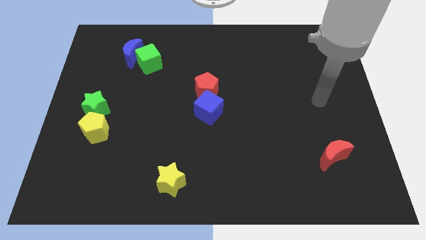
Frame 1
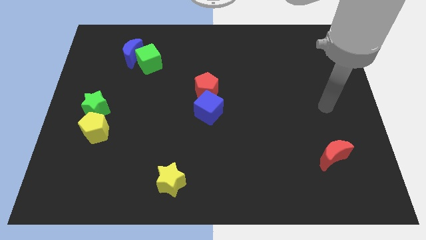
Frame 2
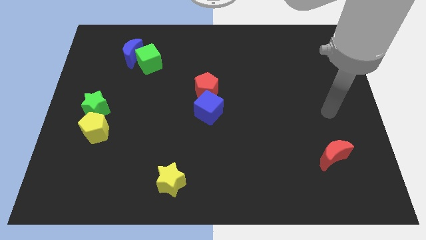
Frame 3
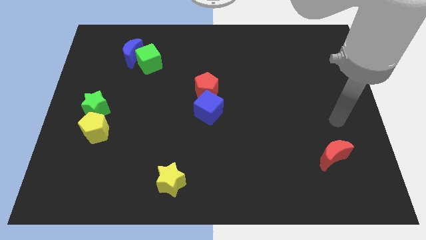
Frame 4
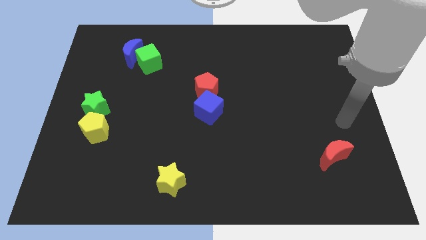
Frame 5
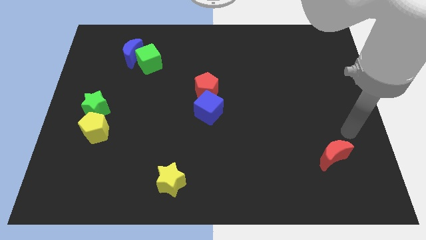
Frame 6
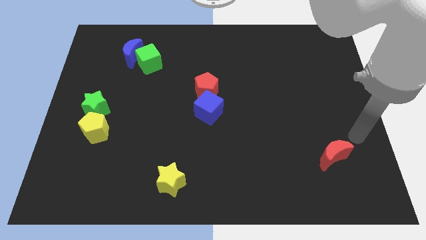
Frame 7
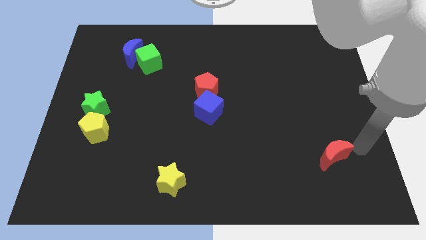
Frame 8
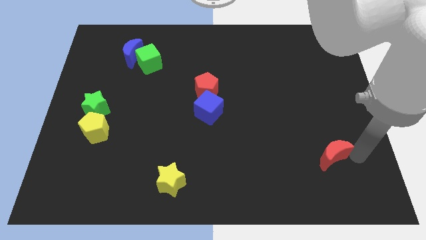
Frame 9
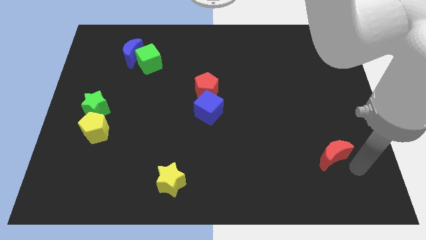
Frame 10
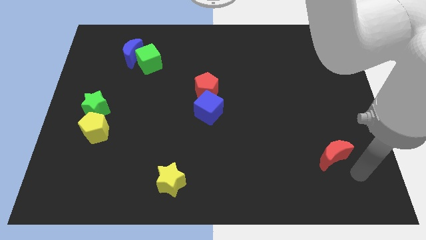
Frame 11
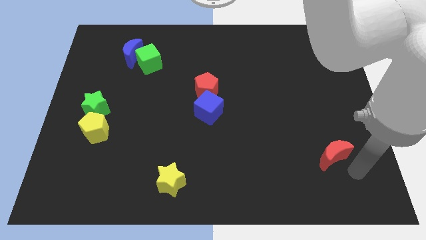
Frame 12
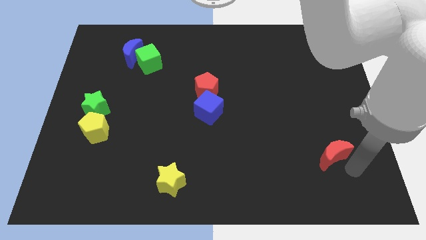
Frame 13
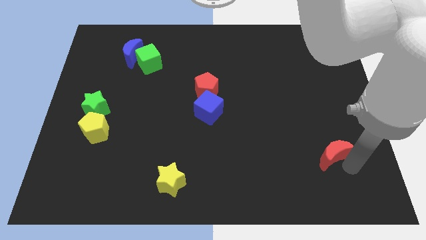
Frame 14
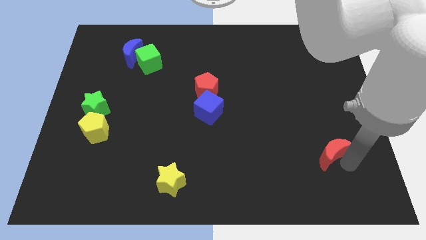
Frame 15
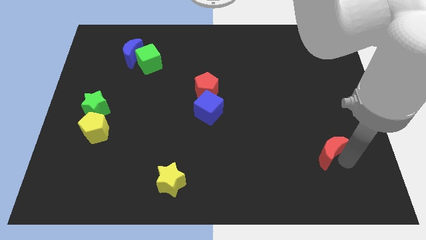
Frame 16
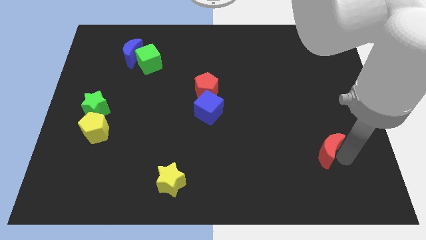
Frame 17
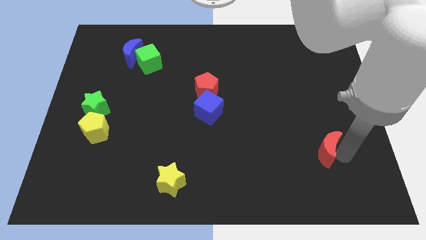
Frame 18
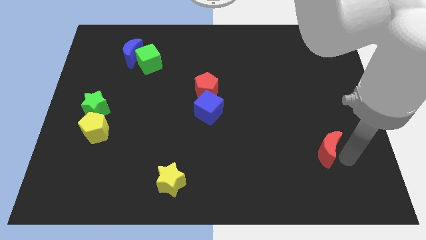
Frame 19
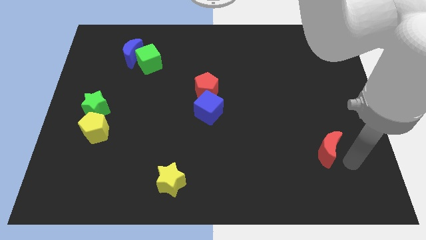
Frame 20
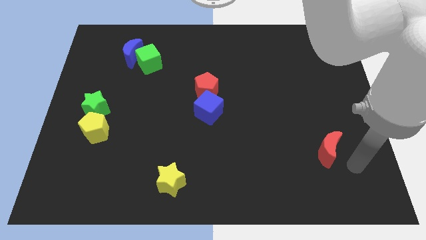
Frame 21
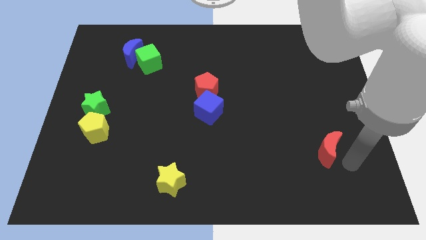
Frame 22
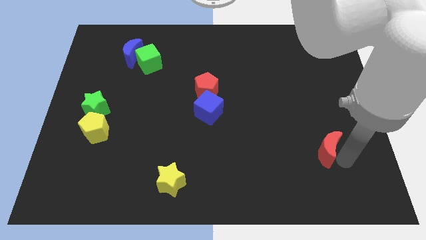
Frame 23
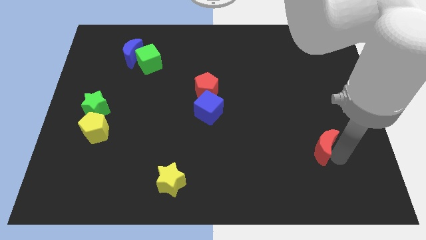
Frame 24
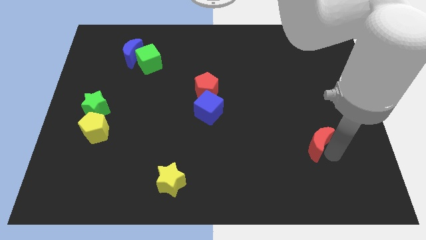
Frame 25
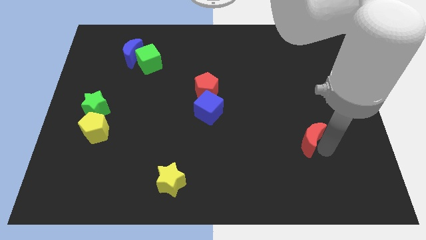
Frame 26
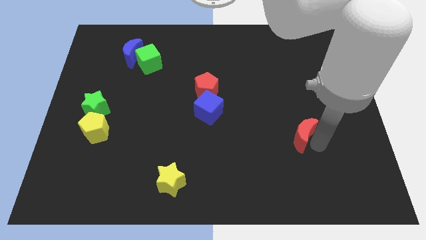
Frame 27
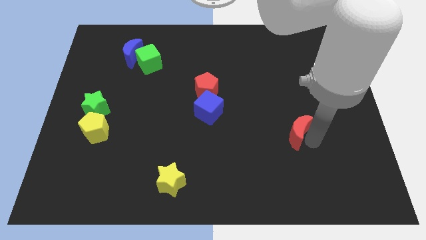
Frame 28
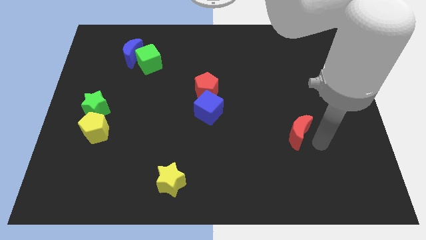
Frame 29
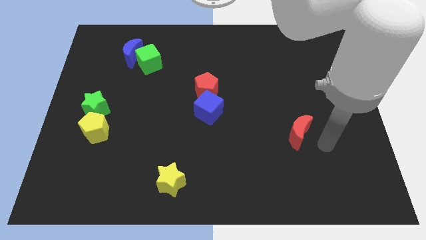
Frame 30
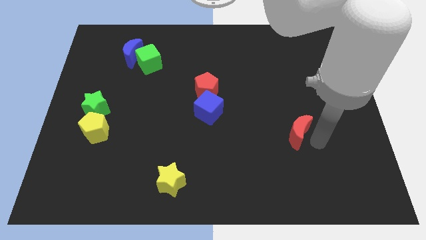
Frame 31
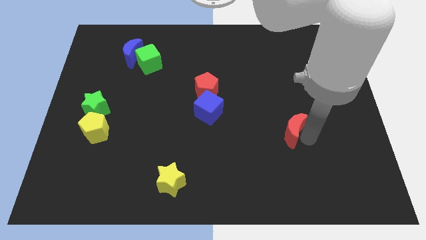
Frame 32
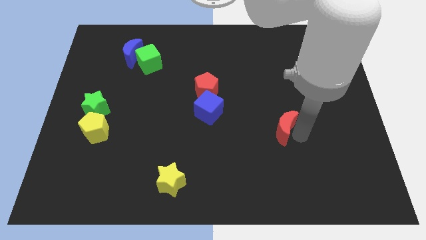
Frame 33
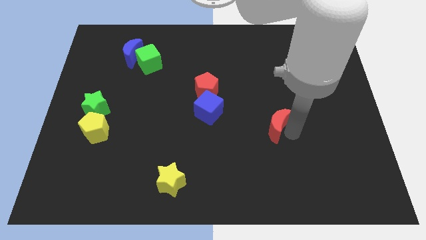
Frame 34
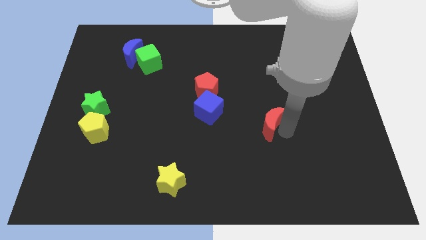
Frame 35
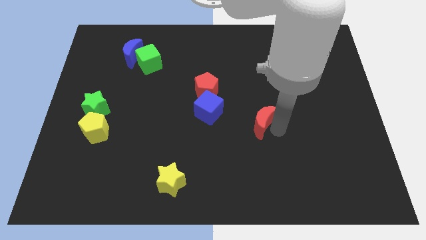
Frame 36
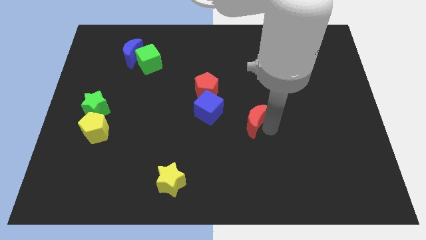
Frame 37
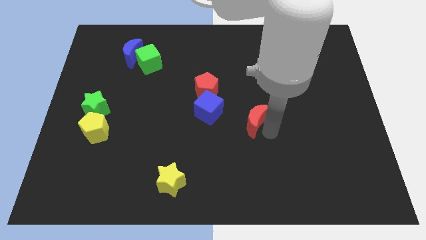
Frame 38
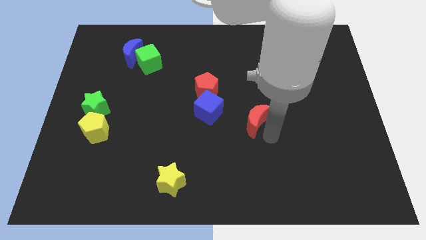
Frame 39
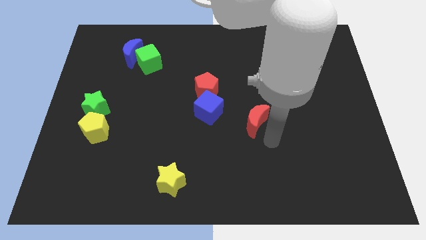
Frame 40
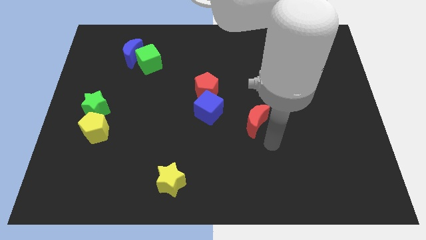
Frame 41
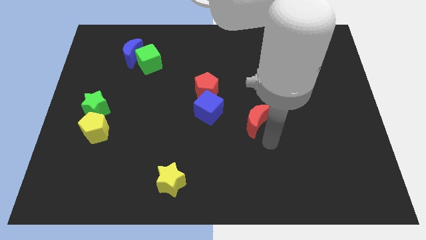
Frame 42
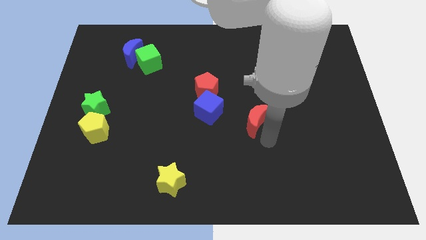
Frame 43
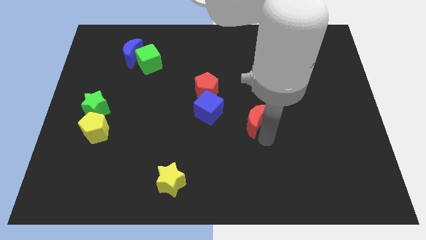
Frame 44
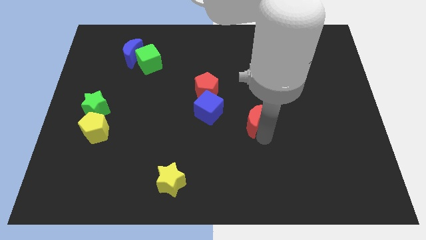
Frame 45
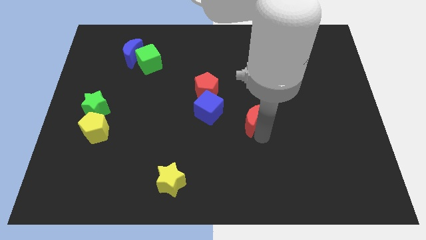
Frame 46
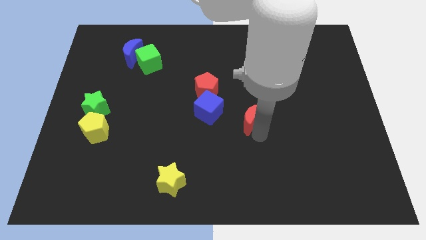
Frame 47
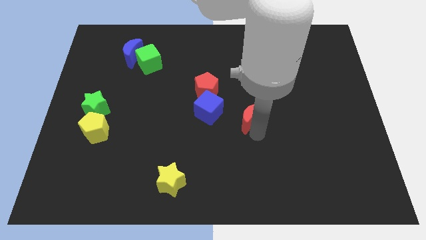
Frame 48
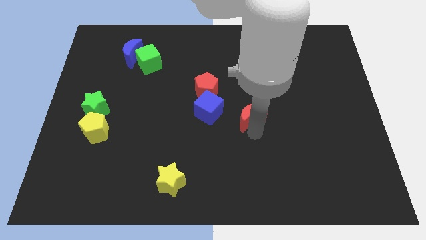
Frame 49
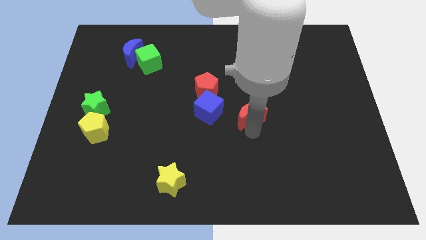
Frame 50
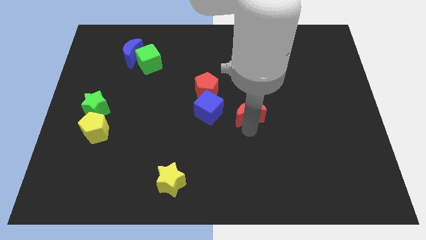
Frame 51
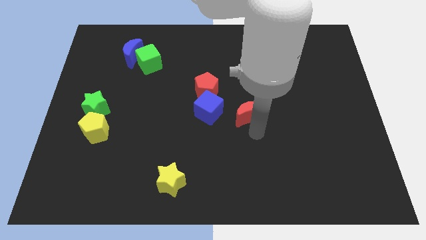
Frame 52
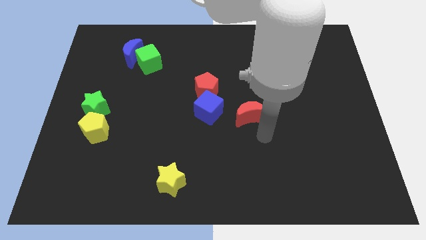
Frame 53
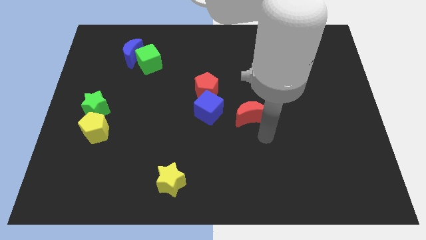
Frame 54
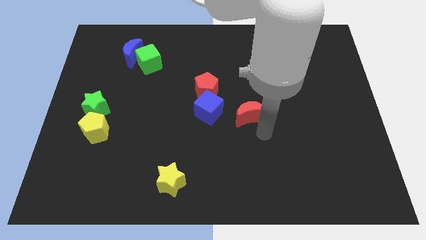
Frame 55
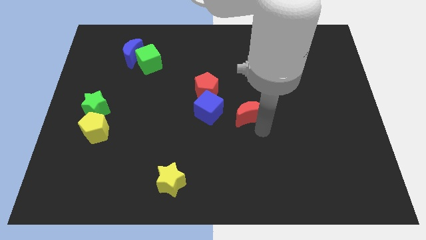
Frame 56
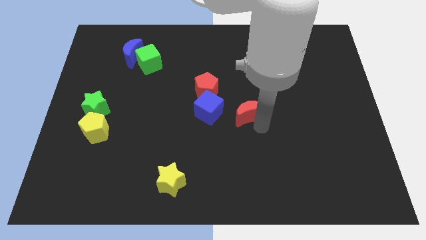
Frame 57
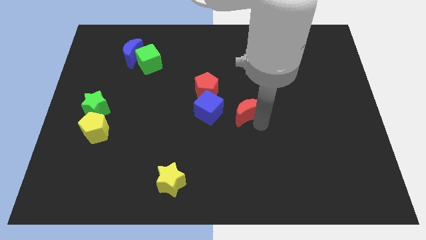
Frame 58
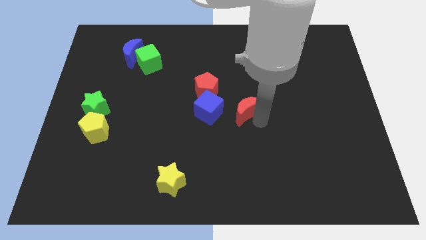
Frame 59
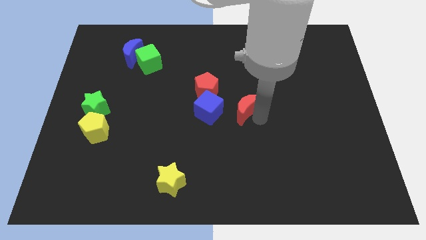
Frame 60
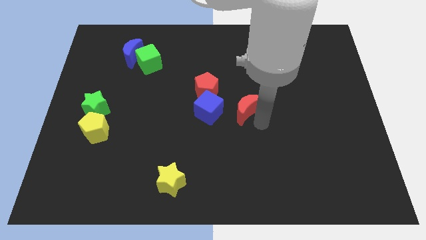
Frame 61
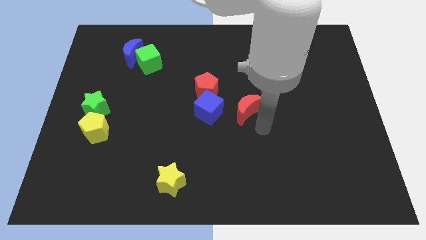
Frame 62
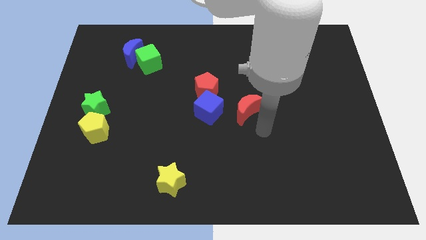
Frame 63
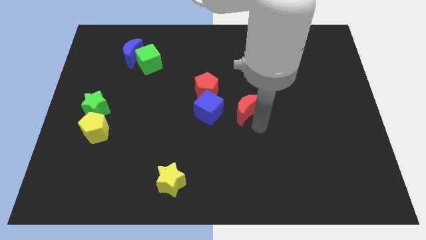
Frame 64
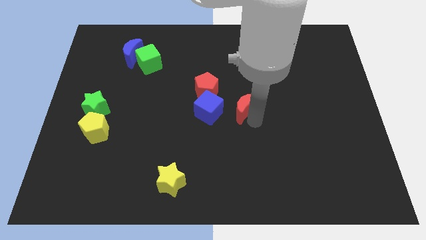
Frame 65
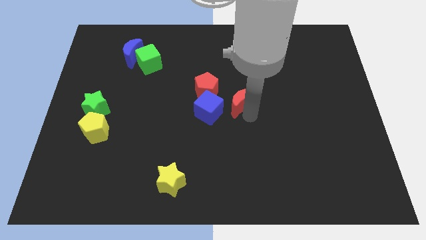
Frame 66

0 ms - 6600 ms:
slide the red moon to the top right side of the blue cube

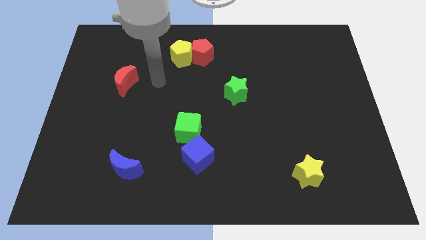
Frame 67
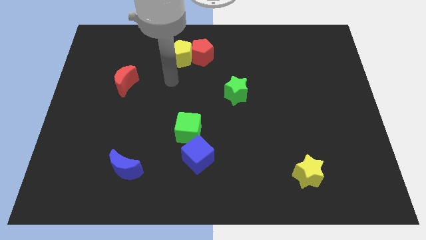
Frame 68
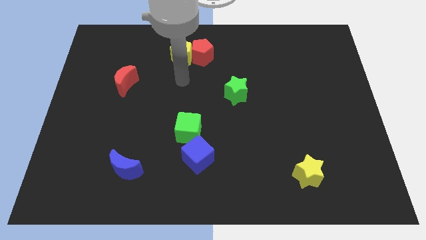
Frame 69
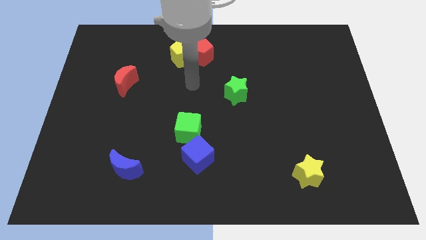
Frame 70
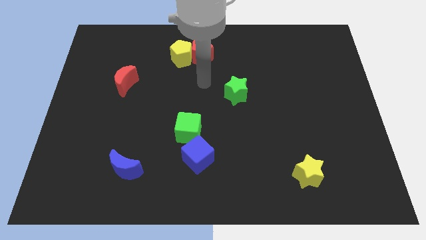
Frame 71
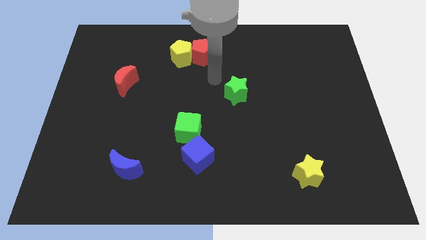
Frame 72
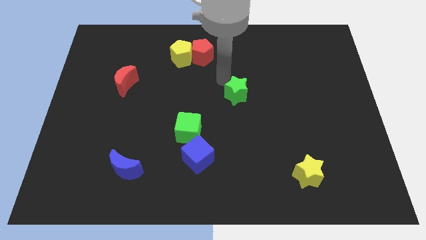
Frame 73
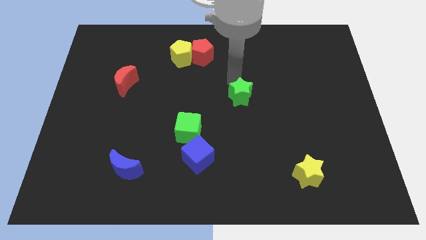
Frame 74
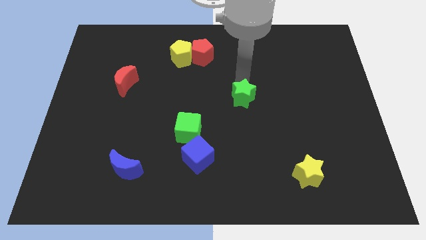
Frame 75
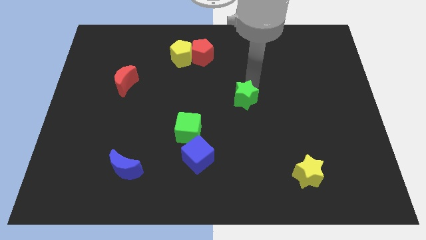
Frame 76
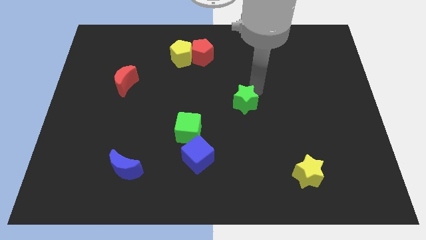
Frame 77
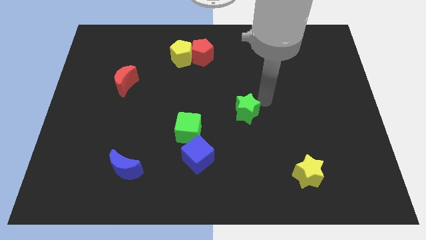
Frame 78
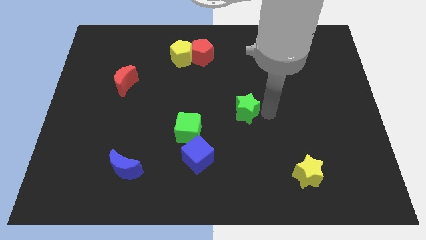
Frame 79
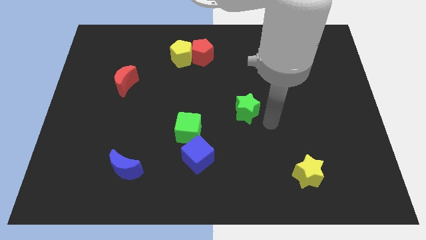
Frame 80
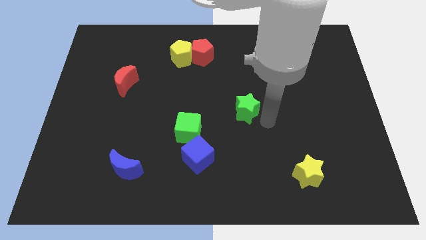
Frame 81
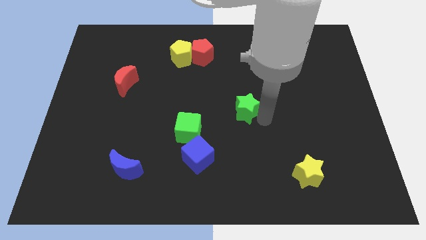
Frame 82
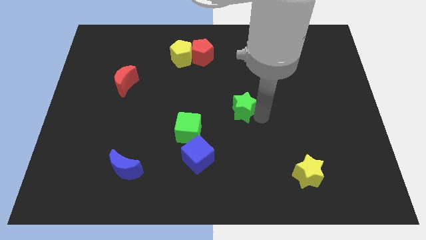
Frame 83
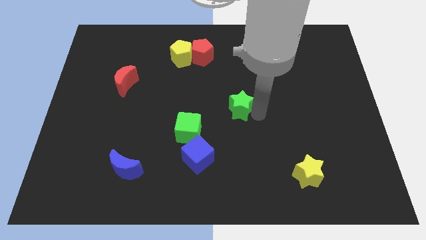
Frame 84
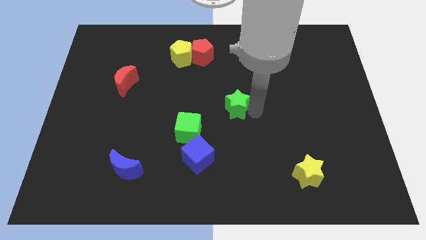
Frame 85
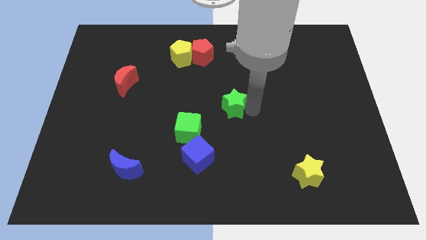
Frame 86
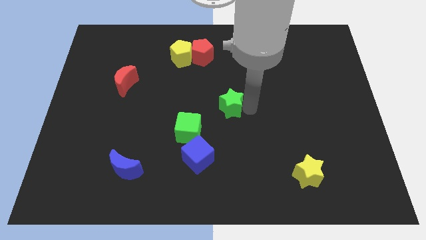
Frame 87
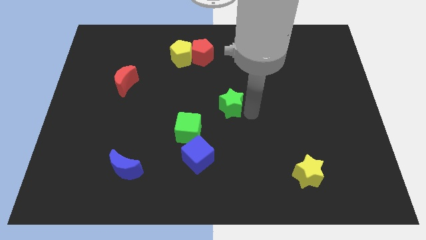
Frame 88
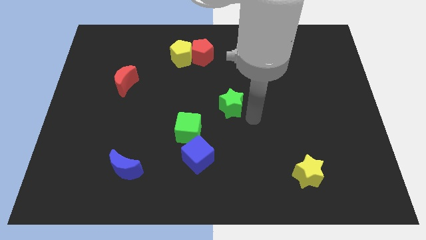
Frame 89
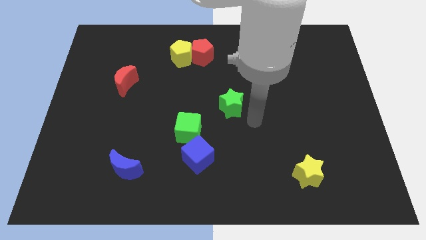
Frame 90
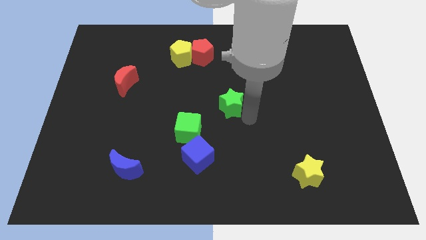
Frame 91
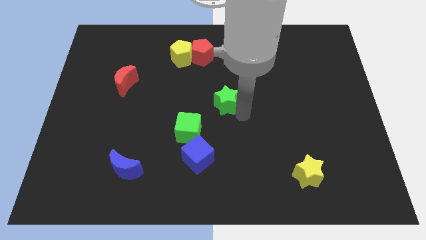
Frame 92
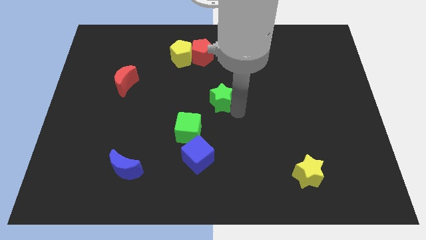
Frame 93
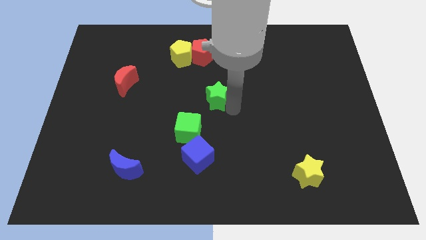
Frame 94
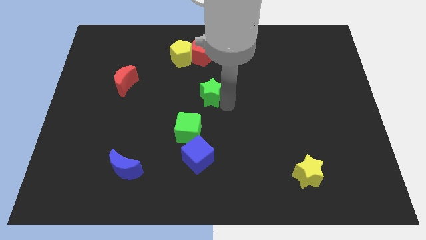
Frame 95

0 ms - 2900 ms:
slide the green star to the top side of the green cube
